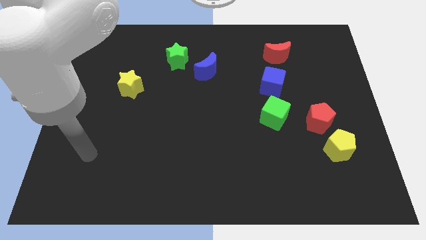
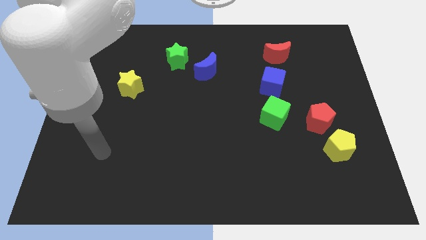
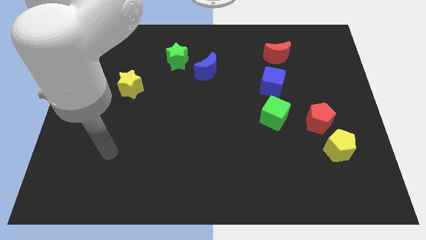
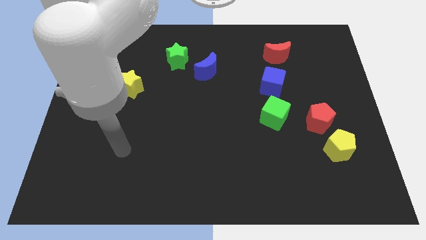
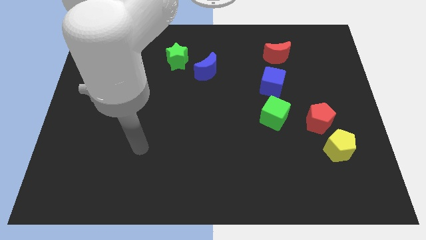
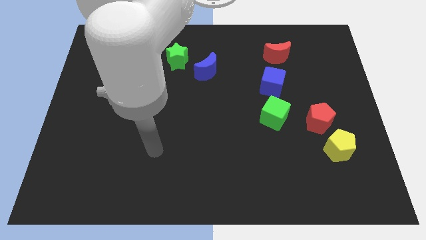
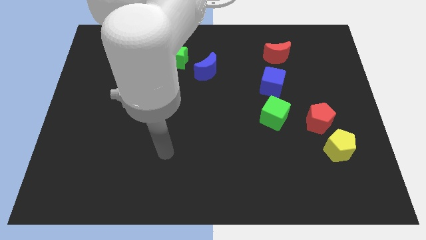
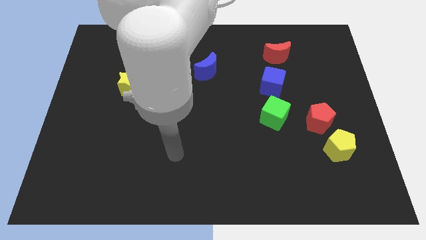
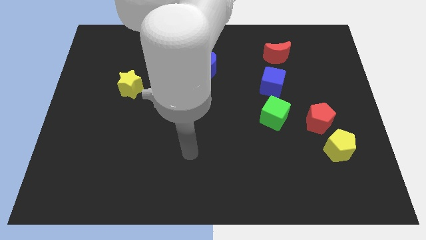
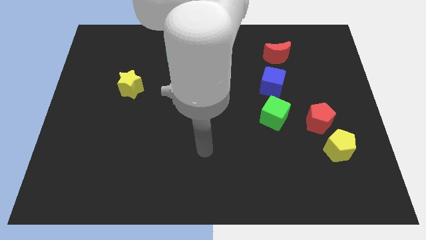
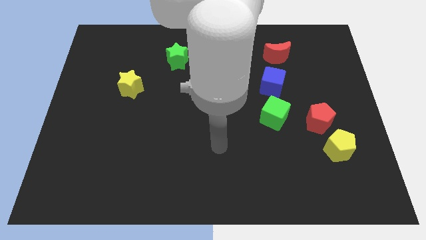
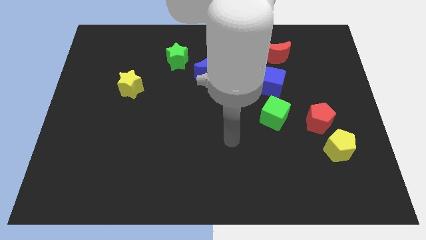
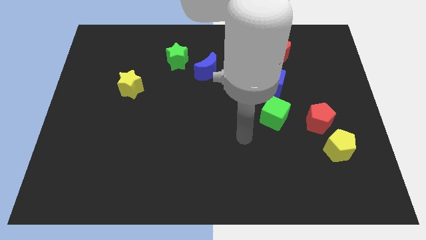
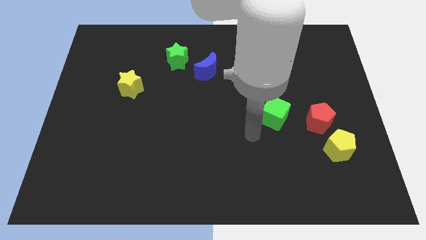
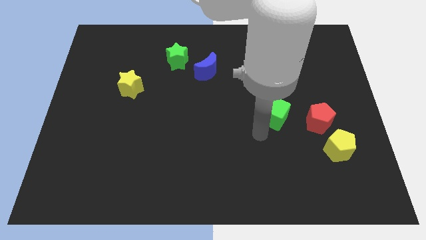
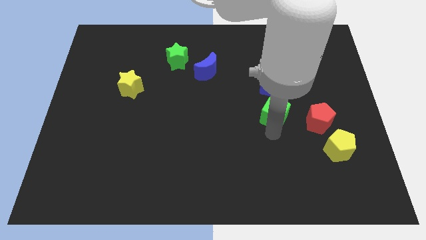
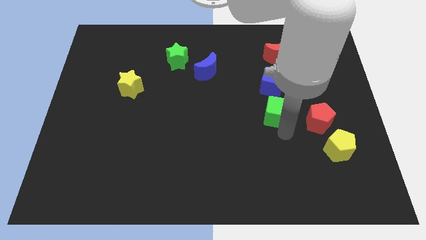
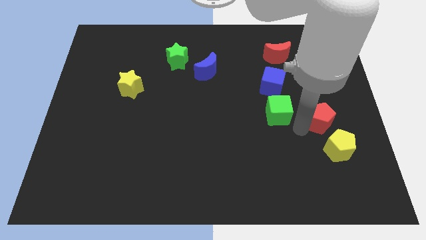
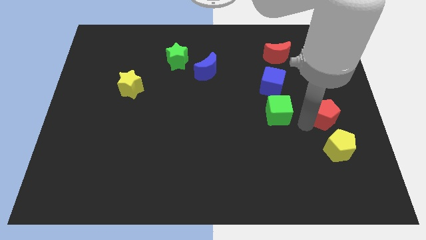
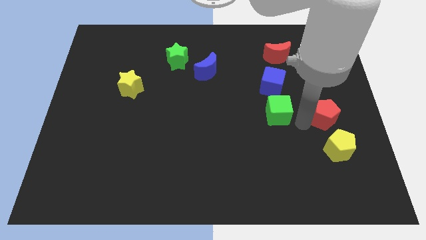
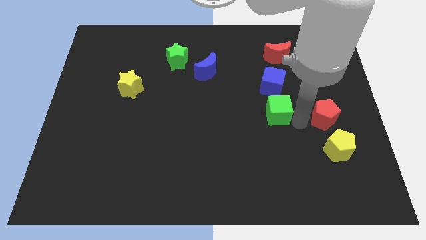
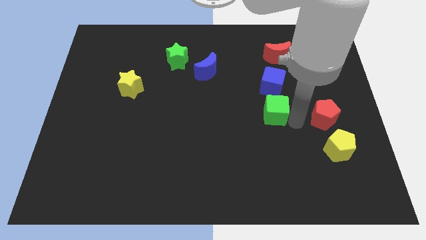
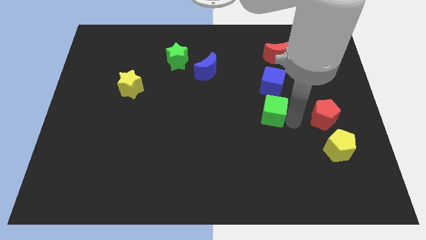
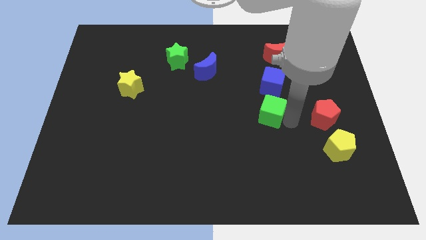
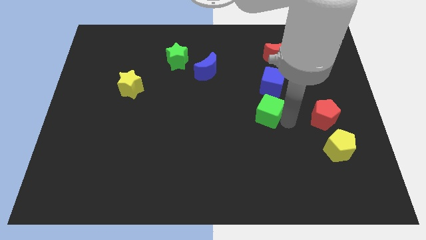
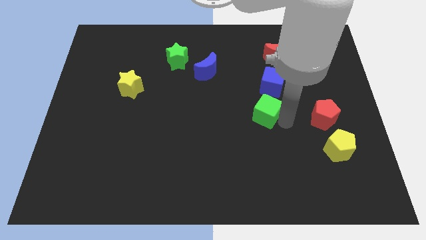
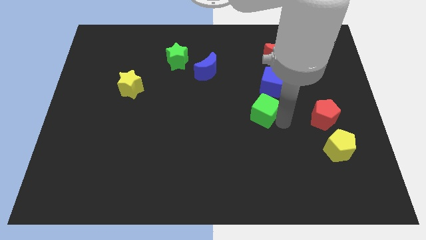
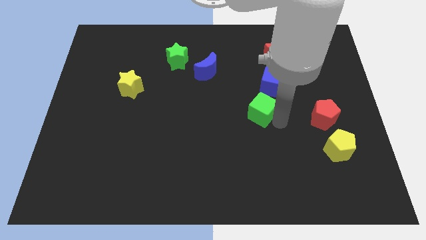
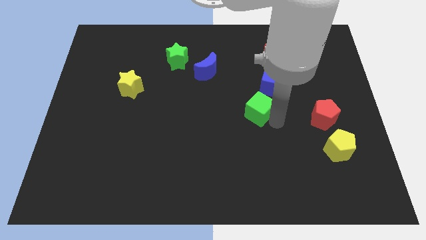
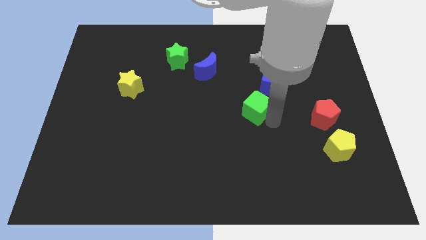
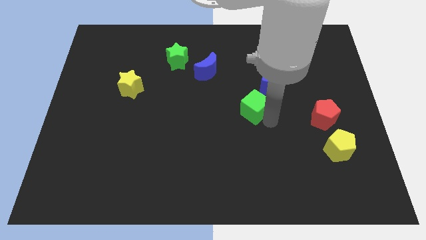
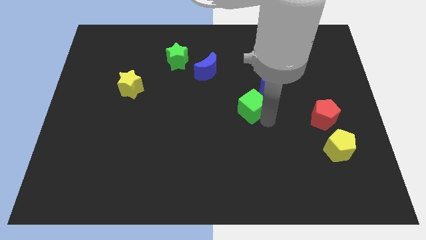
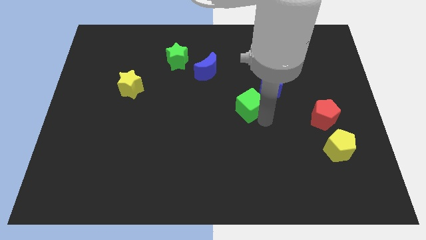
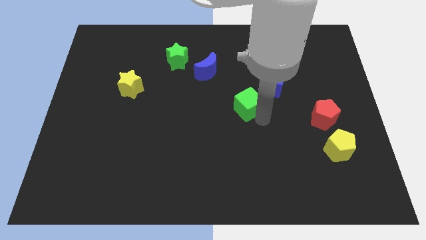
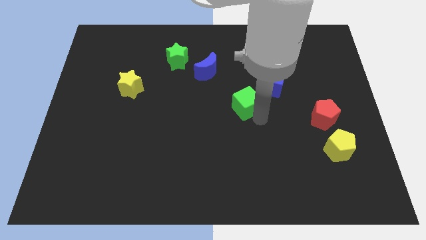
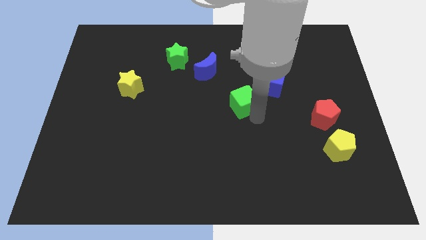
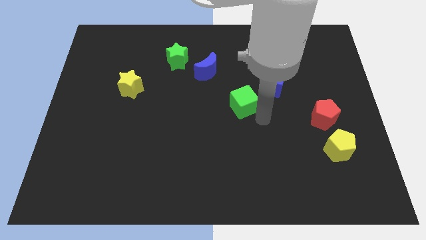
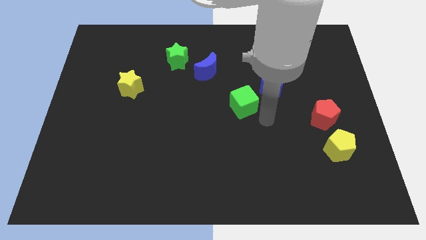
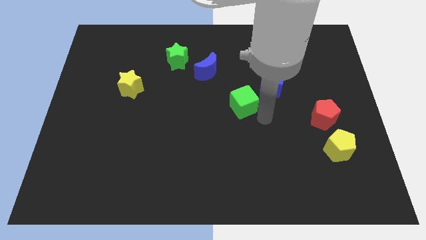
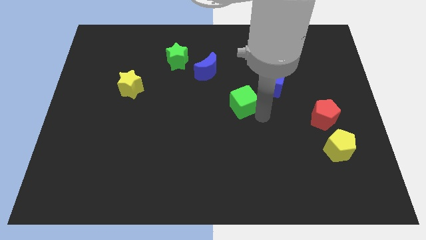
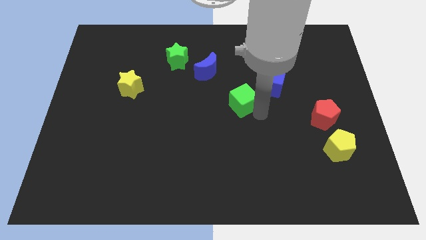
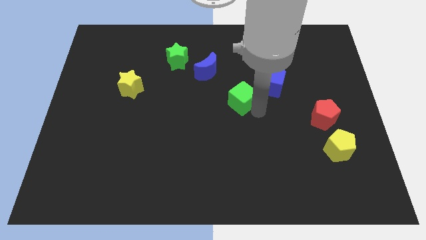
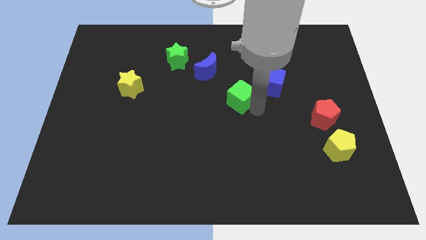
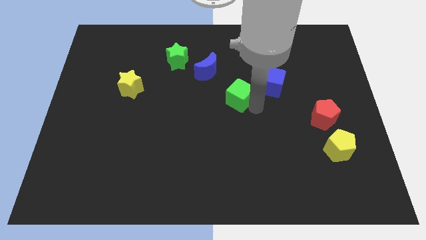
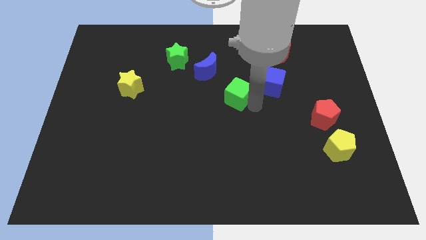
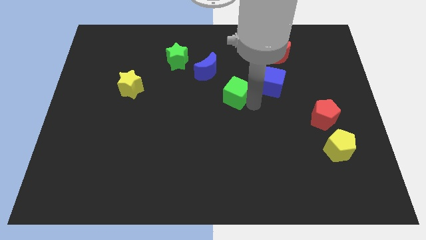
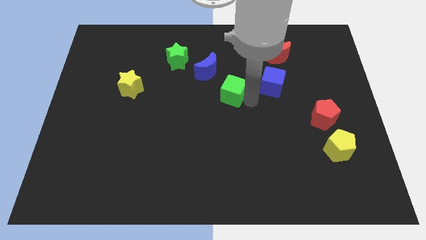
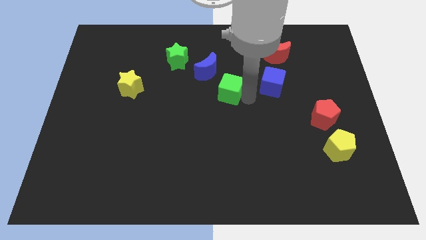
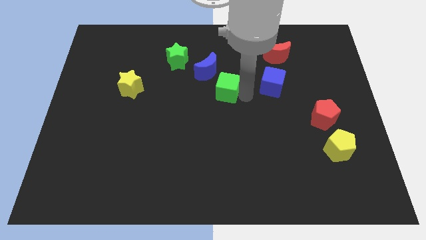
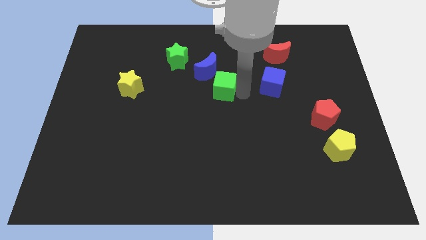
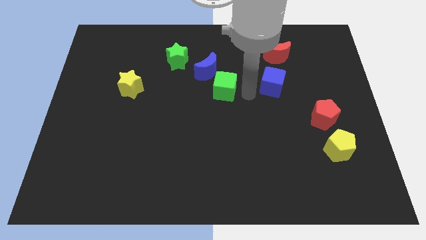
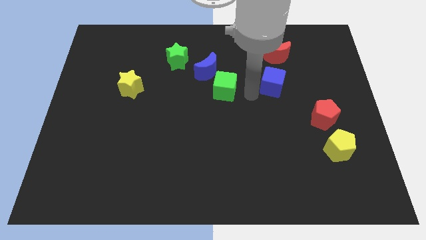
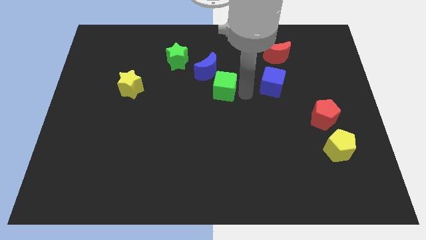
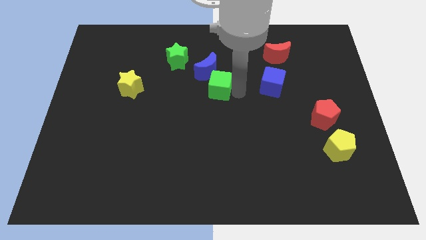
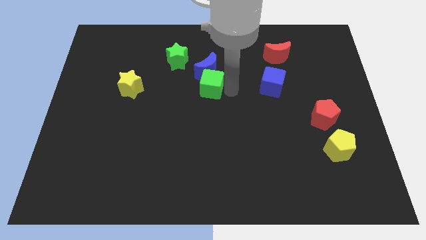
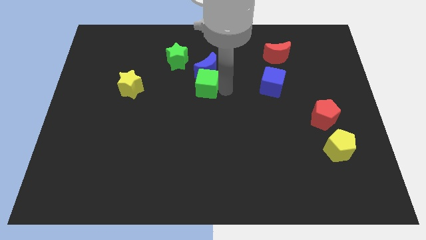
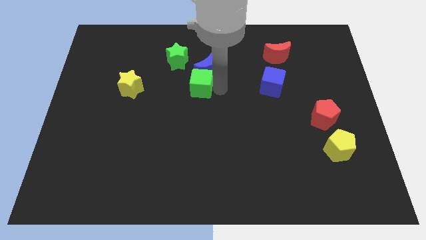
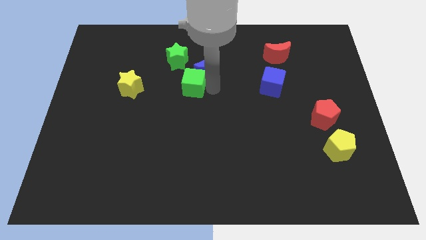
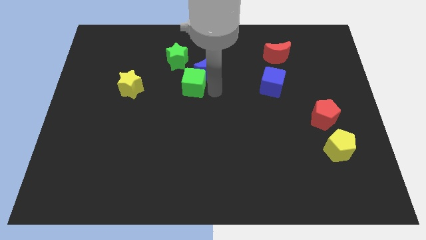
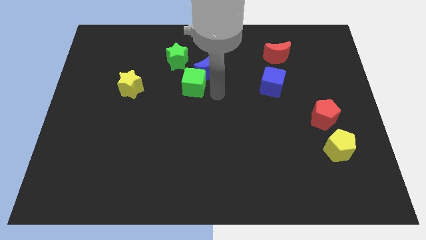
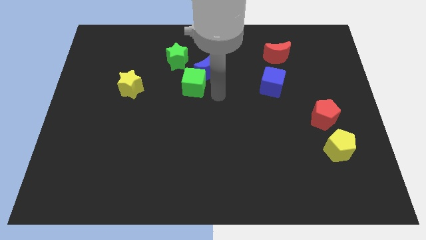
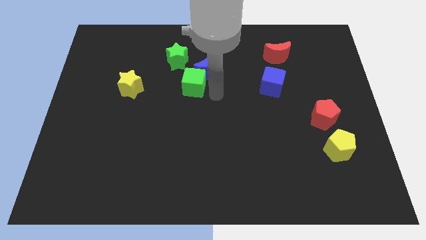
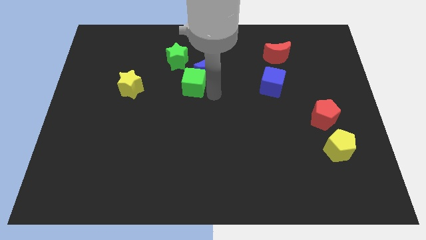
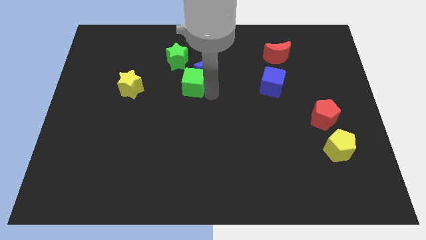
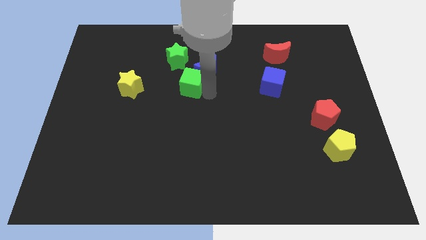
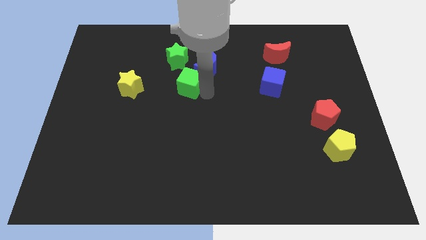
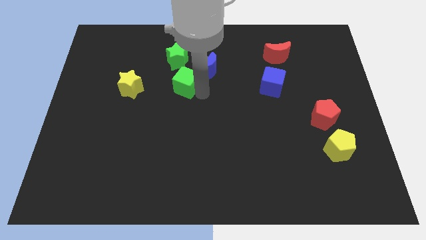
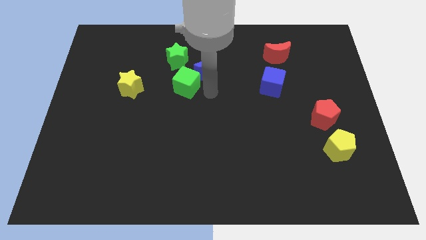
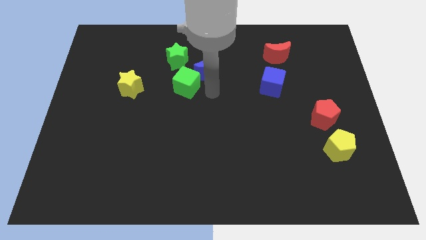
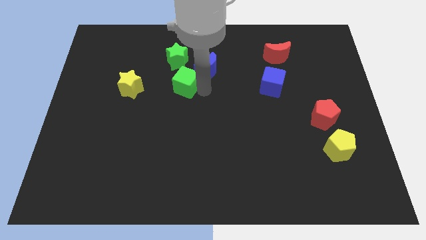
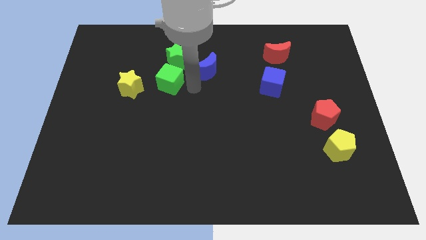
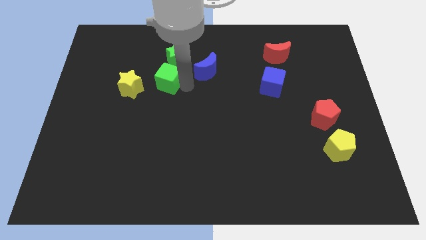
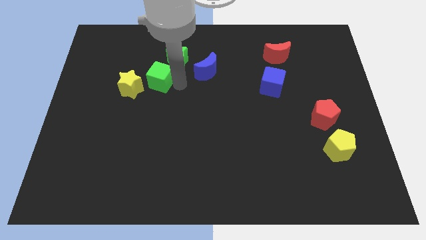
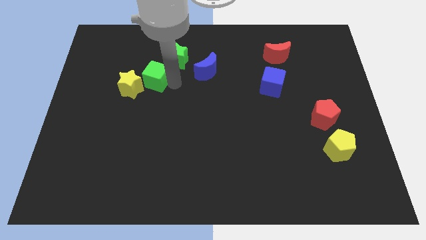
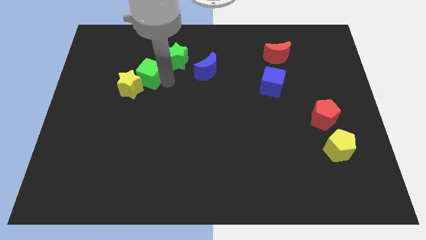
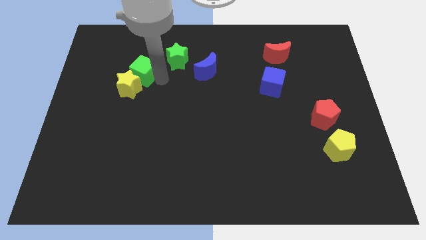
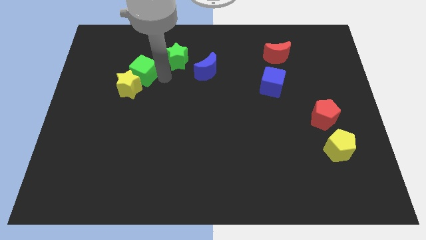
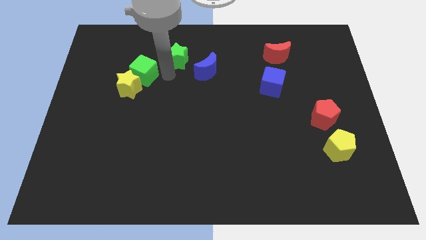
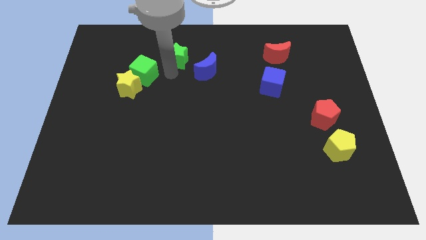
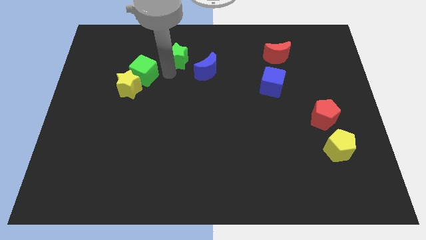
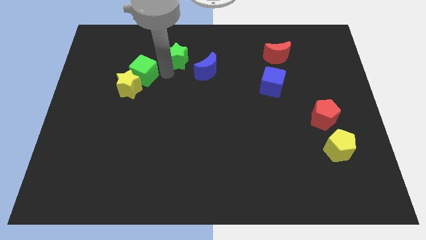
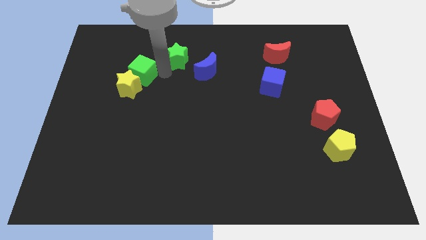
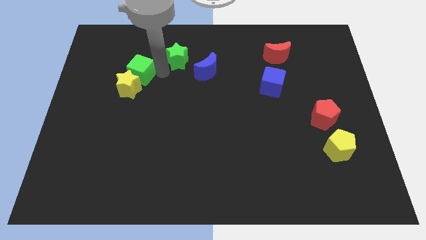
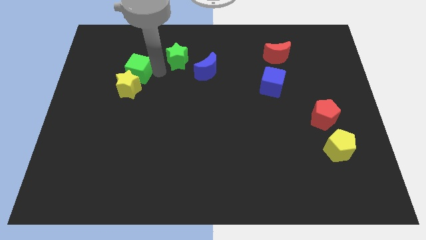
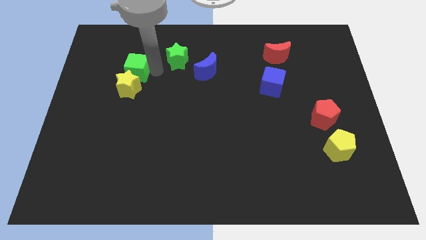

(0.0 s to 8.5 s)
push the green cube to the top left of the yellow star
